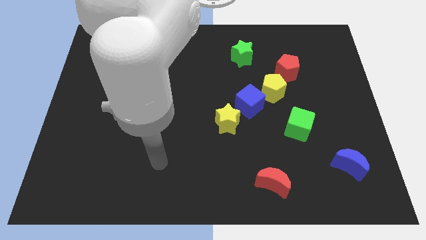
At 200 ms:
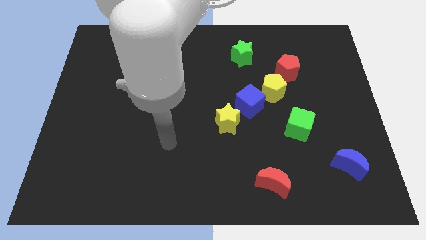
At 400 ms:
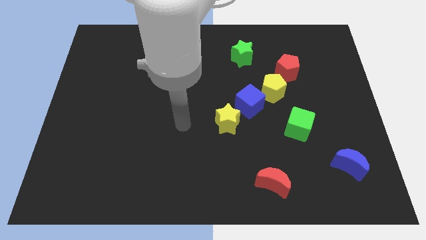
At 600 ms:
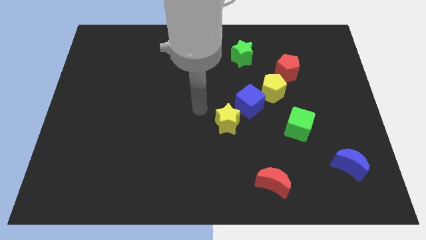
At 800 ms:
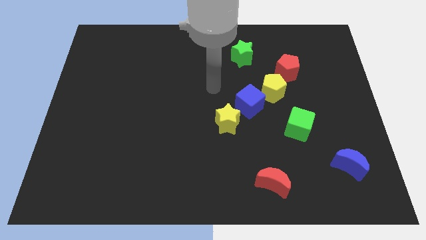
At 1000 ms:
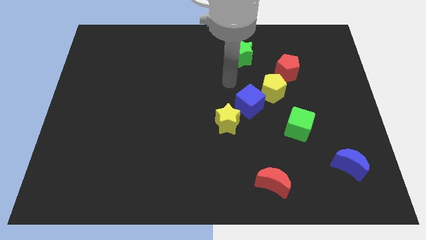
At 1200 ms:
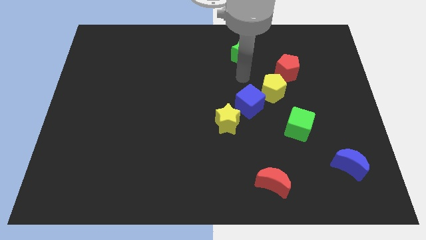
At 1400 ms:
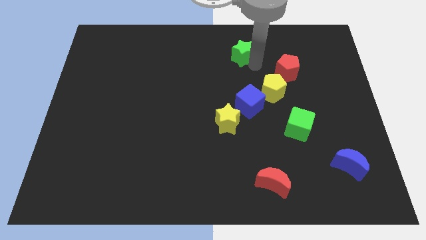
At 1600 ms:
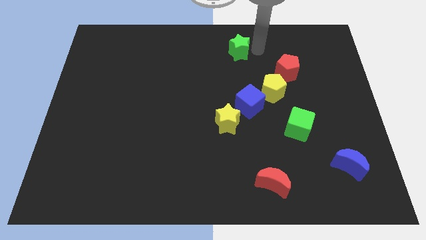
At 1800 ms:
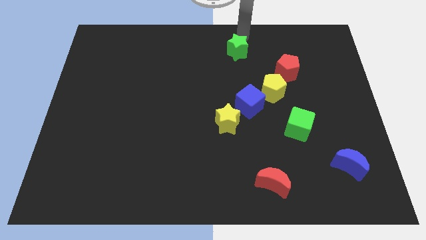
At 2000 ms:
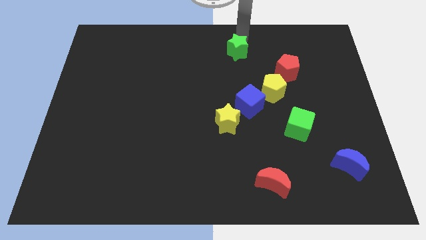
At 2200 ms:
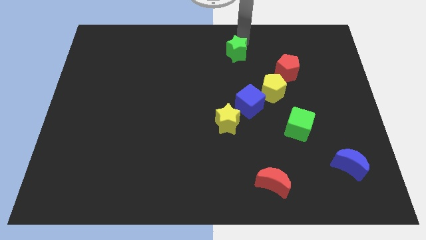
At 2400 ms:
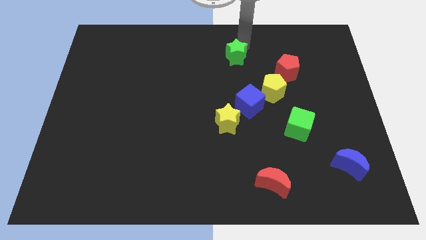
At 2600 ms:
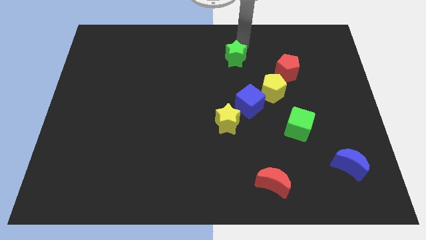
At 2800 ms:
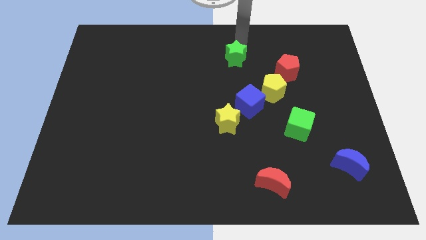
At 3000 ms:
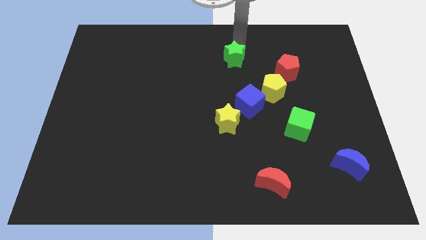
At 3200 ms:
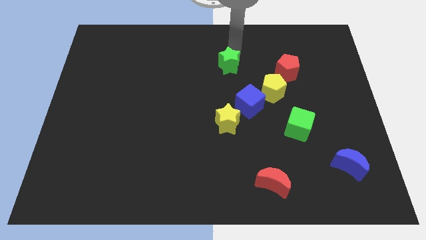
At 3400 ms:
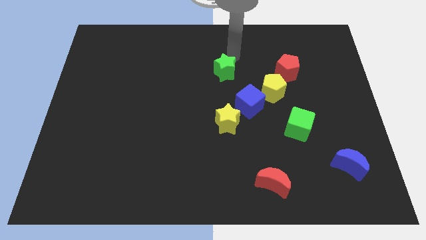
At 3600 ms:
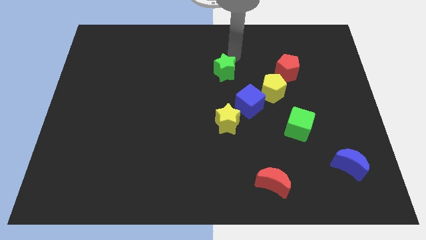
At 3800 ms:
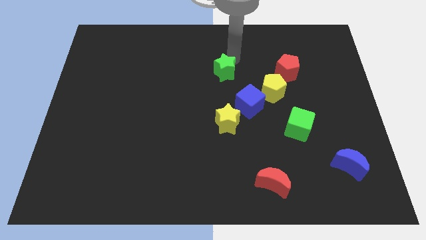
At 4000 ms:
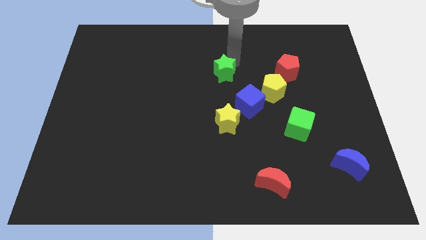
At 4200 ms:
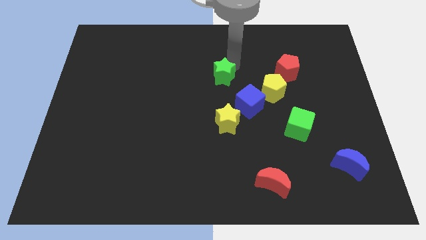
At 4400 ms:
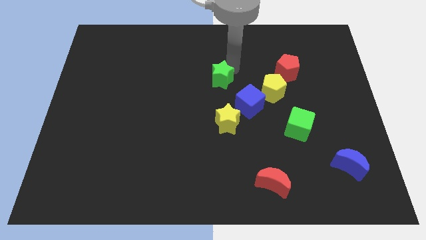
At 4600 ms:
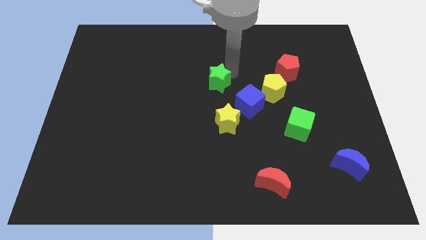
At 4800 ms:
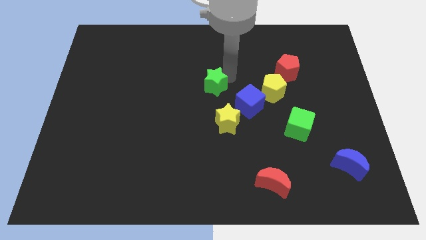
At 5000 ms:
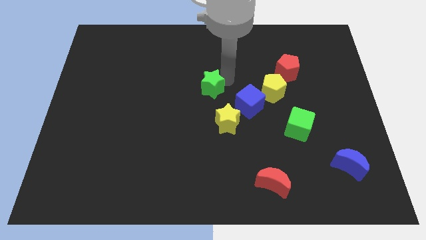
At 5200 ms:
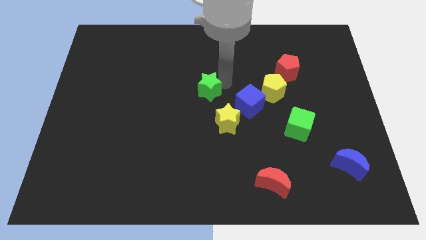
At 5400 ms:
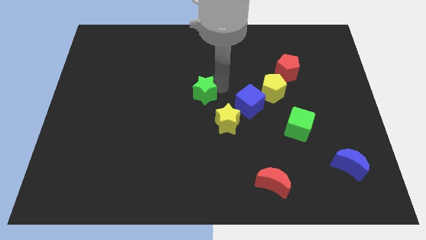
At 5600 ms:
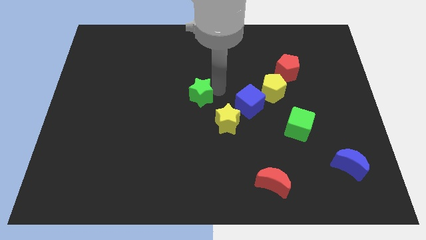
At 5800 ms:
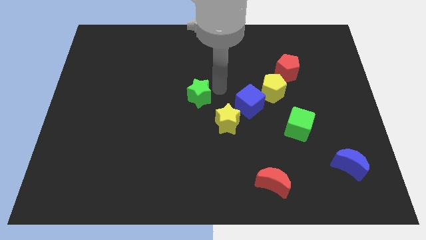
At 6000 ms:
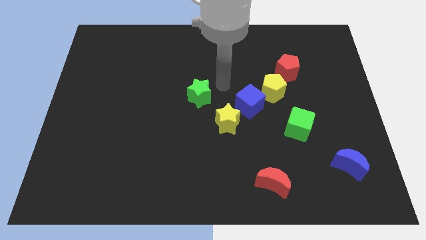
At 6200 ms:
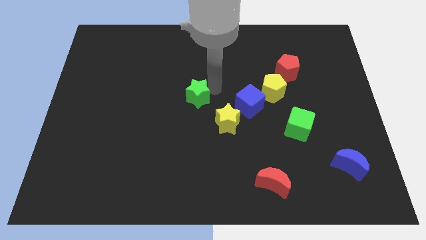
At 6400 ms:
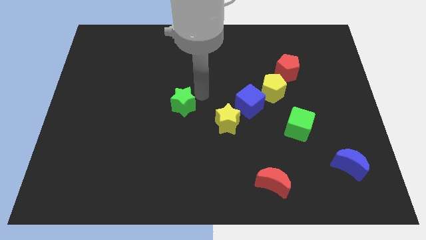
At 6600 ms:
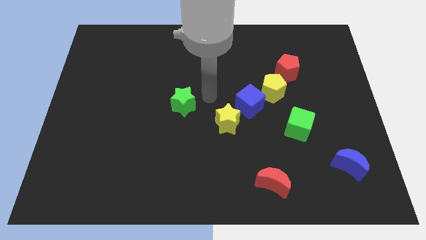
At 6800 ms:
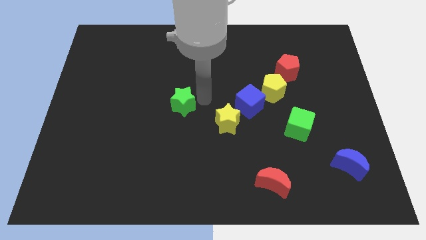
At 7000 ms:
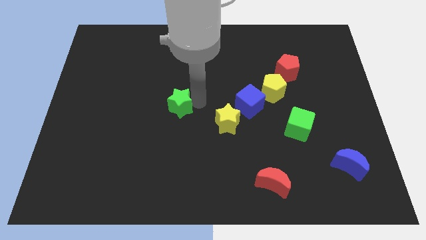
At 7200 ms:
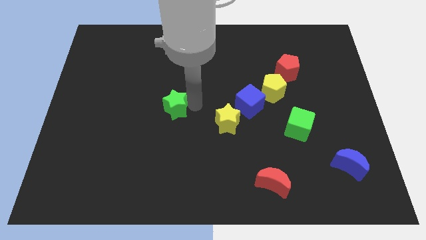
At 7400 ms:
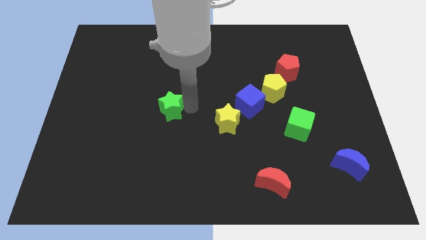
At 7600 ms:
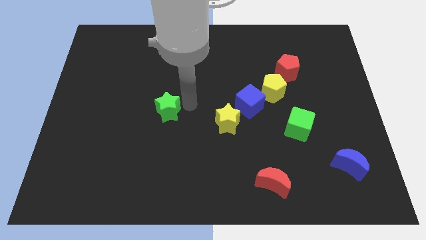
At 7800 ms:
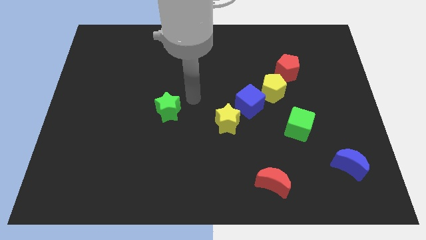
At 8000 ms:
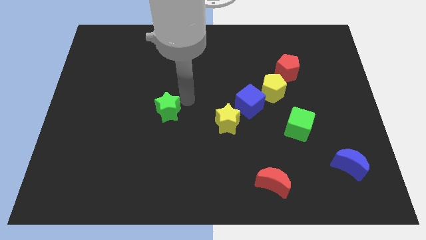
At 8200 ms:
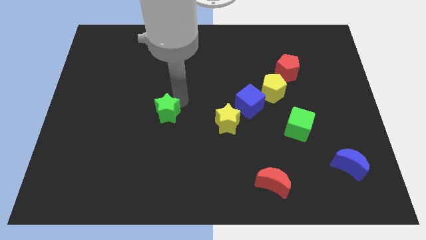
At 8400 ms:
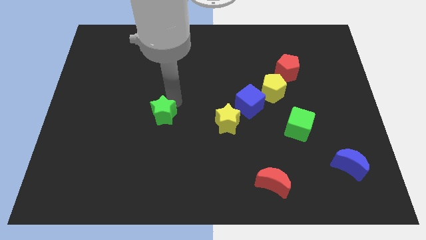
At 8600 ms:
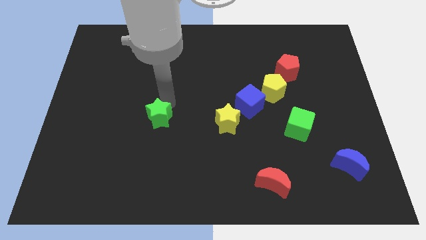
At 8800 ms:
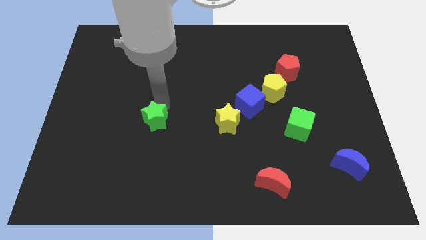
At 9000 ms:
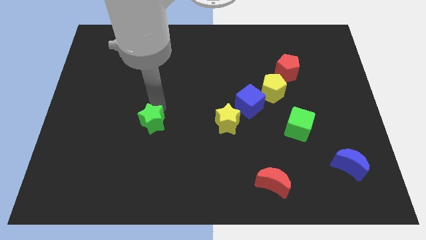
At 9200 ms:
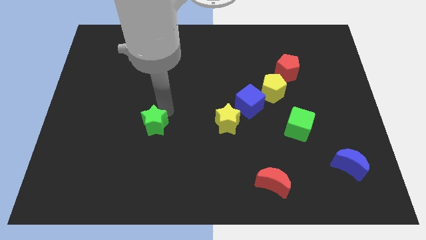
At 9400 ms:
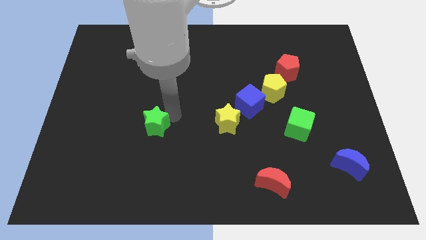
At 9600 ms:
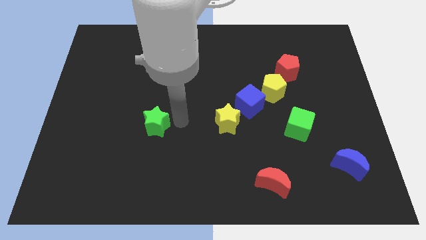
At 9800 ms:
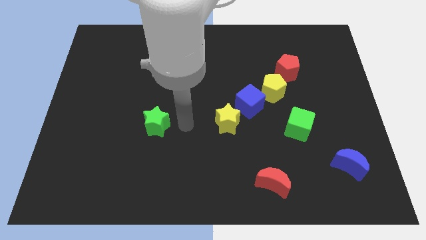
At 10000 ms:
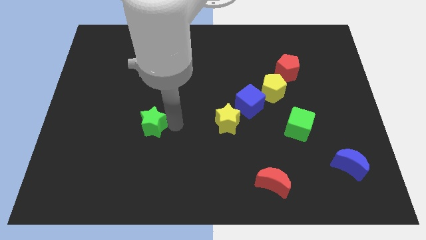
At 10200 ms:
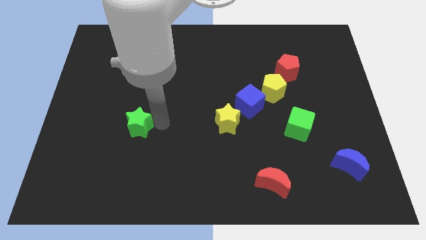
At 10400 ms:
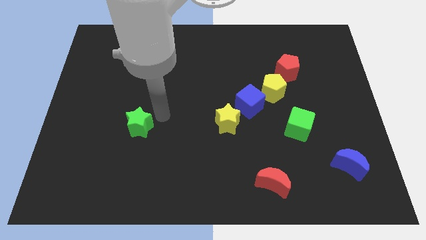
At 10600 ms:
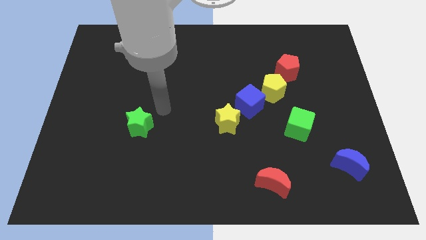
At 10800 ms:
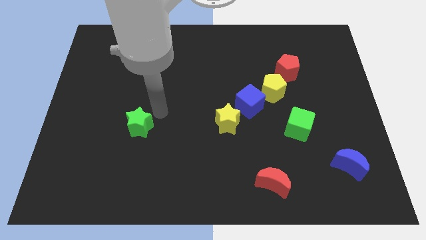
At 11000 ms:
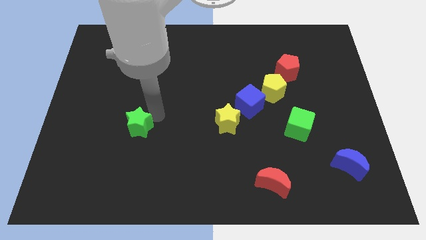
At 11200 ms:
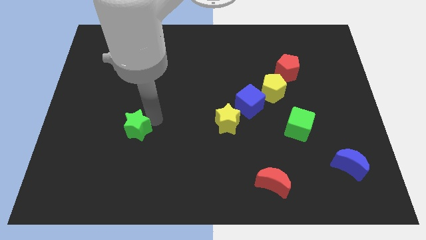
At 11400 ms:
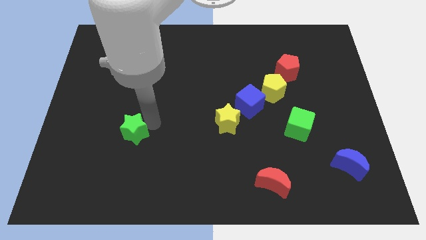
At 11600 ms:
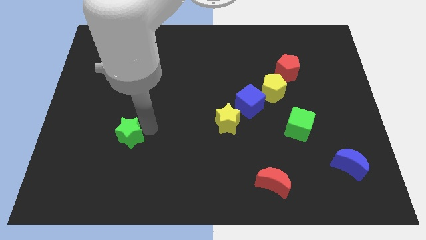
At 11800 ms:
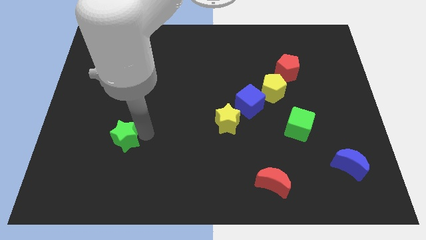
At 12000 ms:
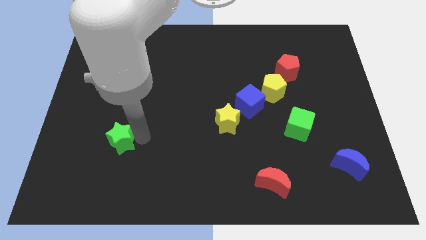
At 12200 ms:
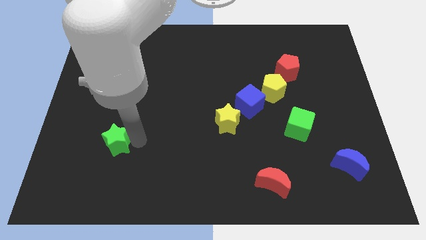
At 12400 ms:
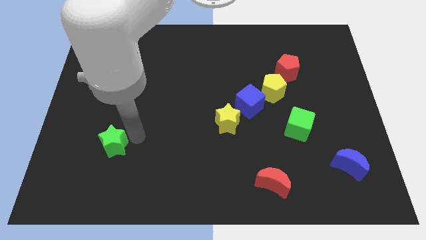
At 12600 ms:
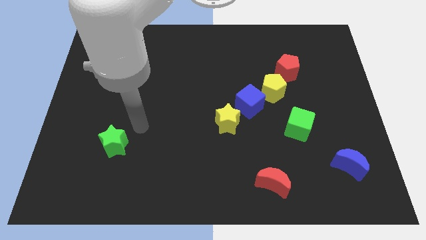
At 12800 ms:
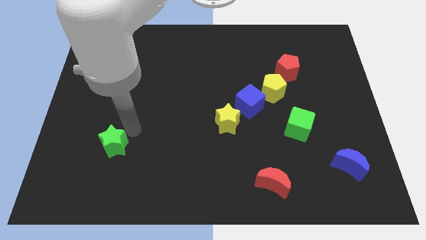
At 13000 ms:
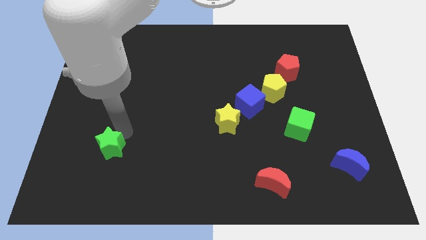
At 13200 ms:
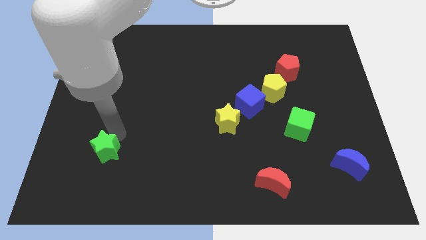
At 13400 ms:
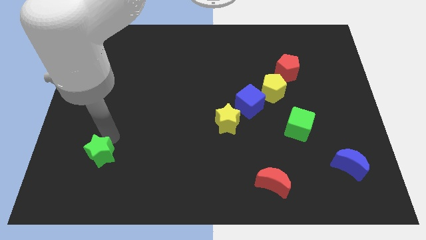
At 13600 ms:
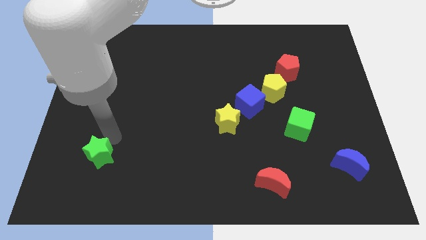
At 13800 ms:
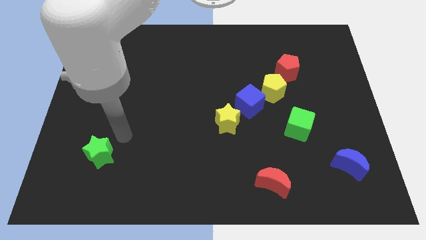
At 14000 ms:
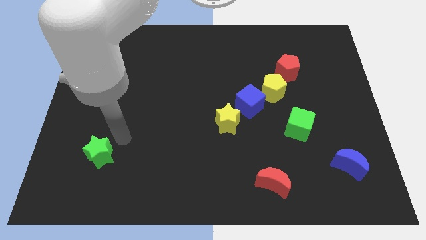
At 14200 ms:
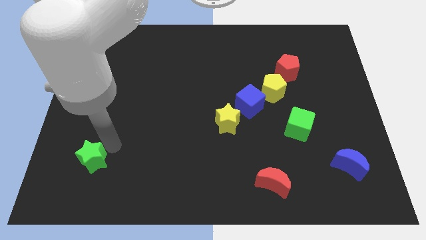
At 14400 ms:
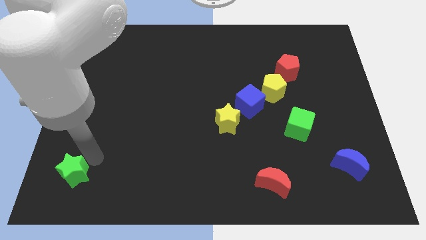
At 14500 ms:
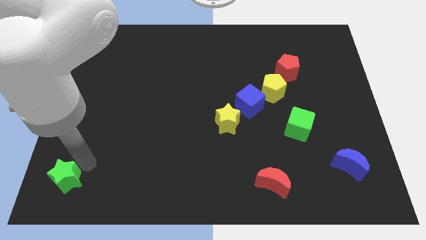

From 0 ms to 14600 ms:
slide the green star to the bottom left

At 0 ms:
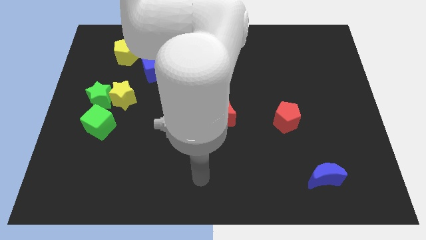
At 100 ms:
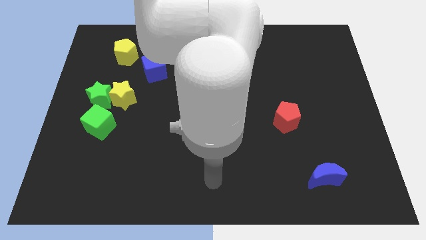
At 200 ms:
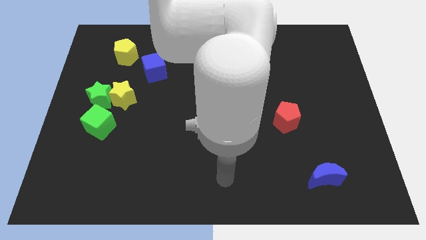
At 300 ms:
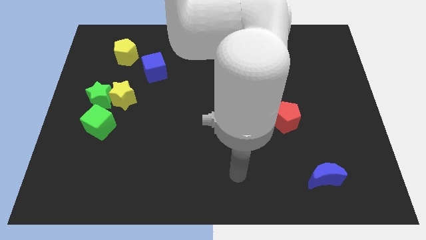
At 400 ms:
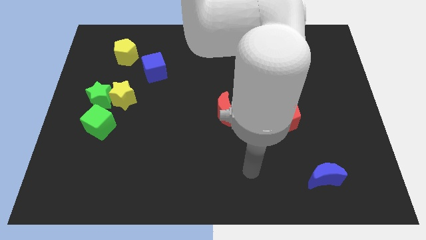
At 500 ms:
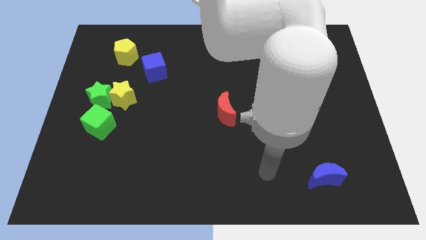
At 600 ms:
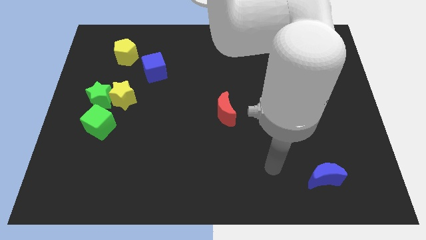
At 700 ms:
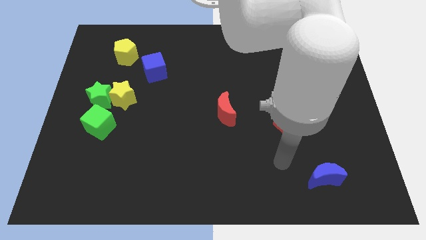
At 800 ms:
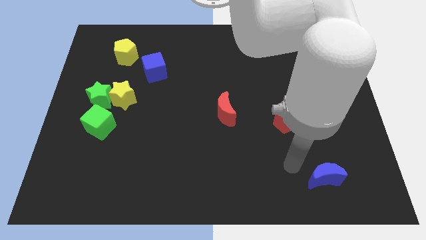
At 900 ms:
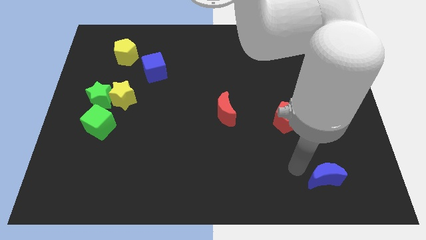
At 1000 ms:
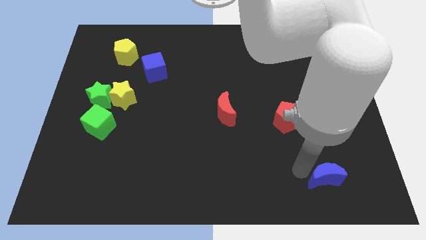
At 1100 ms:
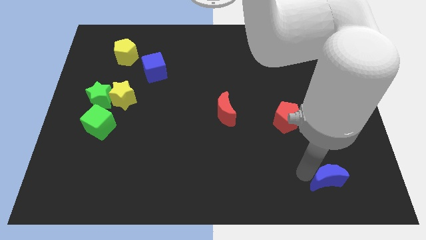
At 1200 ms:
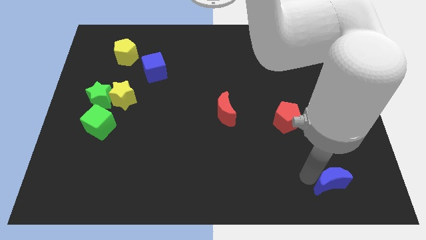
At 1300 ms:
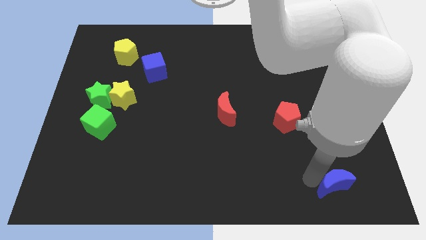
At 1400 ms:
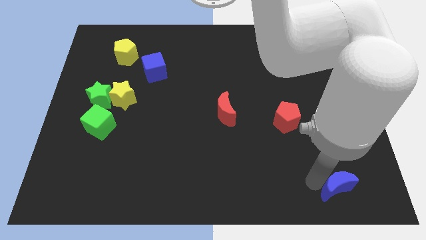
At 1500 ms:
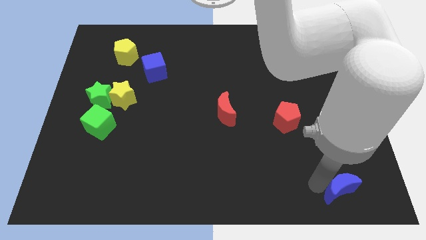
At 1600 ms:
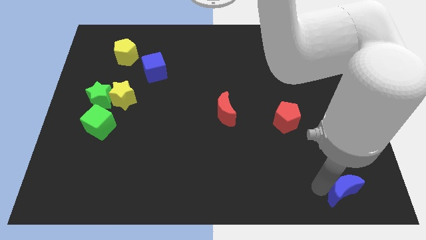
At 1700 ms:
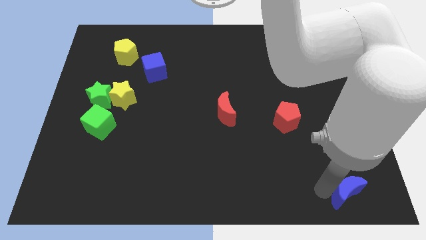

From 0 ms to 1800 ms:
slide the blue moon to the bottom right corner
